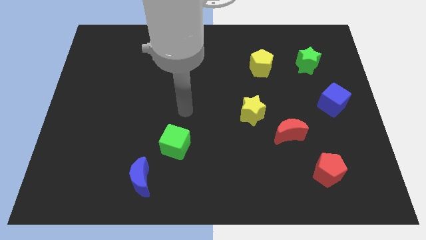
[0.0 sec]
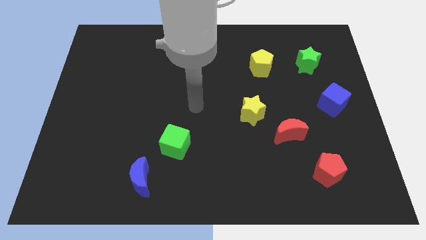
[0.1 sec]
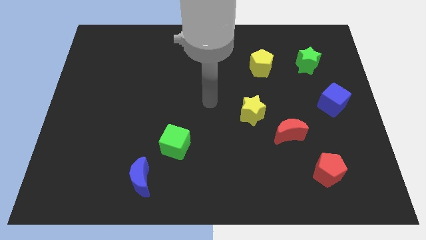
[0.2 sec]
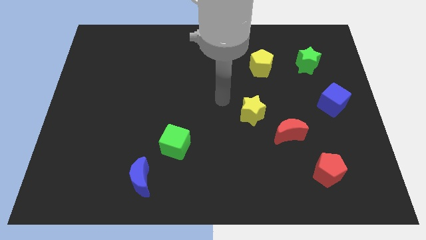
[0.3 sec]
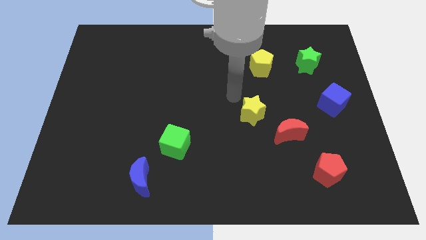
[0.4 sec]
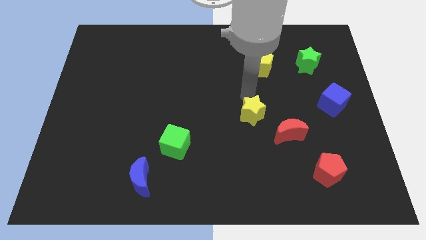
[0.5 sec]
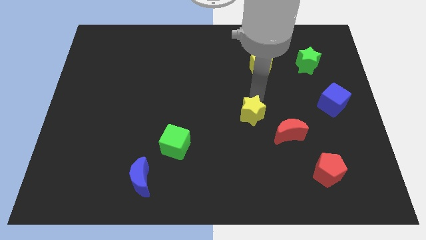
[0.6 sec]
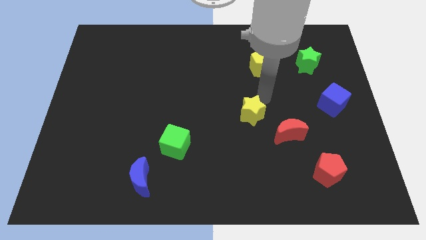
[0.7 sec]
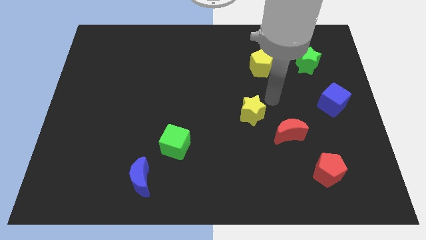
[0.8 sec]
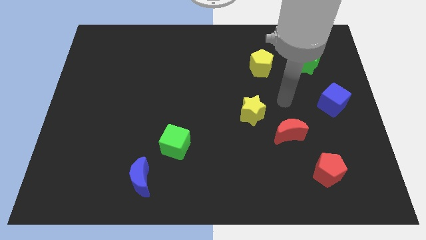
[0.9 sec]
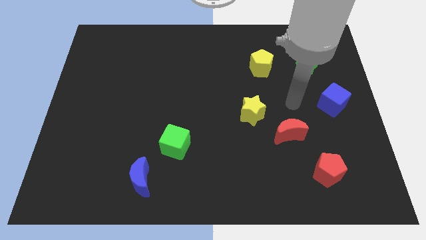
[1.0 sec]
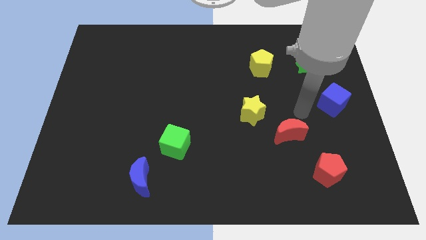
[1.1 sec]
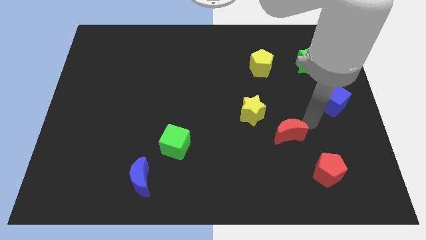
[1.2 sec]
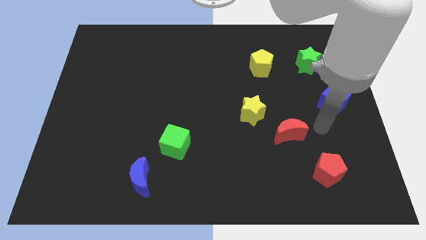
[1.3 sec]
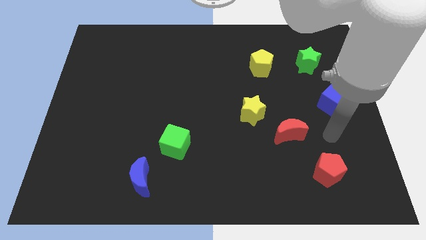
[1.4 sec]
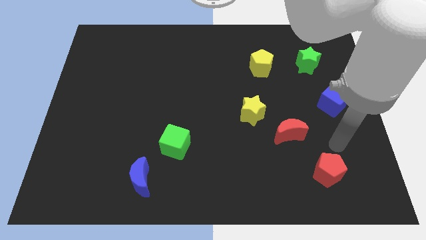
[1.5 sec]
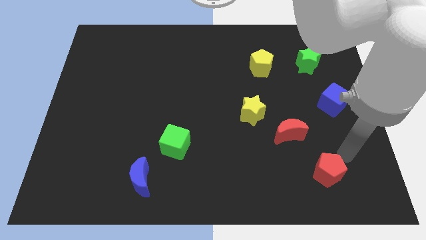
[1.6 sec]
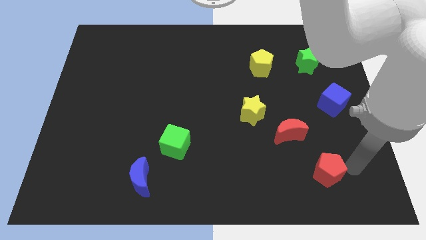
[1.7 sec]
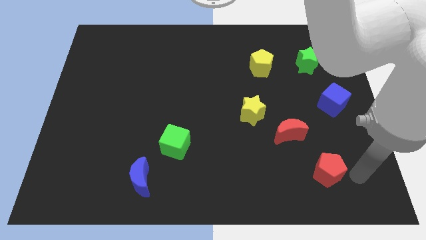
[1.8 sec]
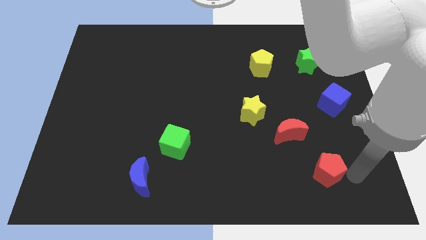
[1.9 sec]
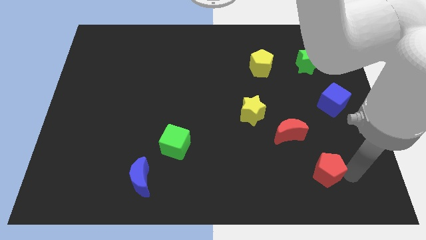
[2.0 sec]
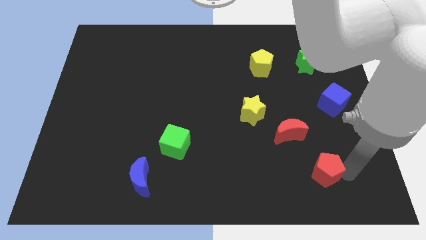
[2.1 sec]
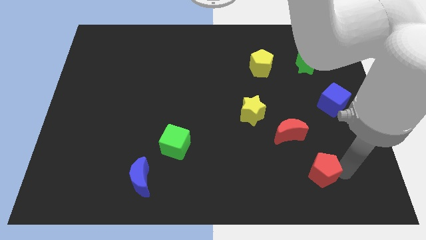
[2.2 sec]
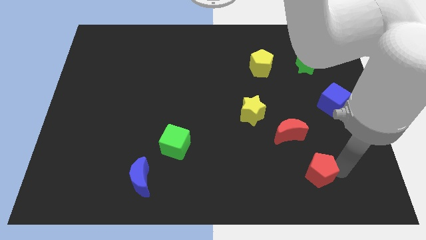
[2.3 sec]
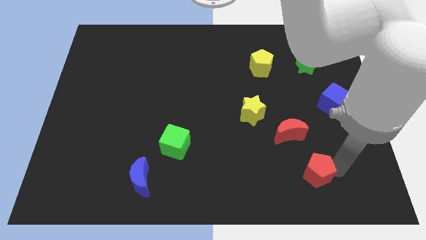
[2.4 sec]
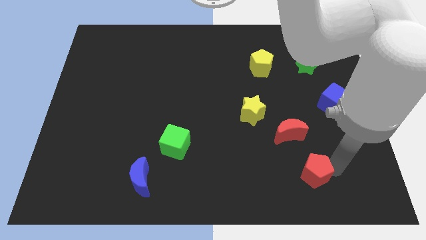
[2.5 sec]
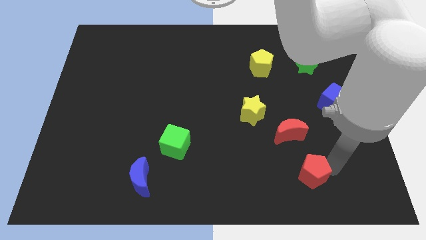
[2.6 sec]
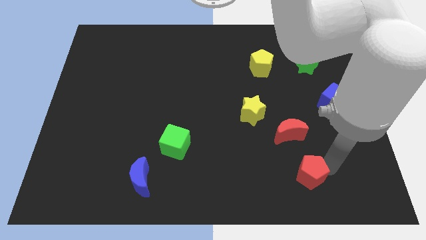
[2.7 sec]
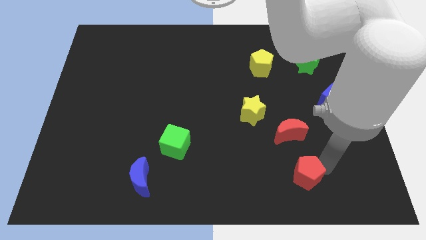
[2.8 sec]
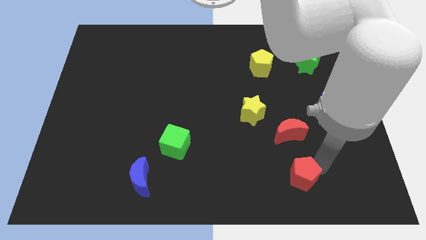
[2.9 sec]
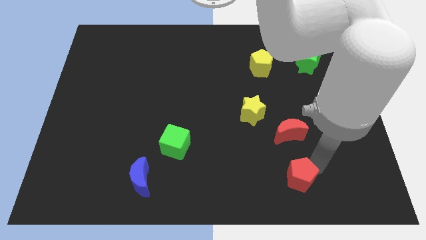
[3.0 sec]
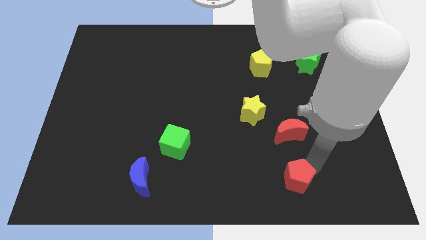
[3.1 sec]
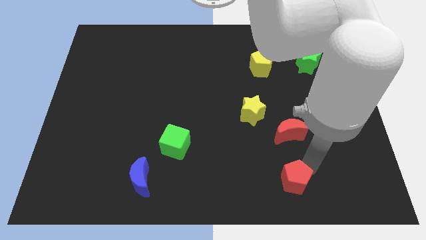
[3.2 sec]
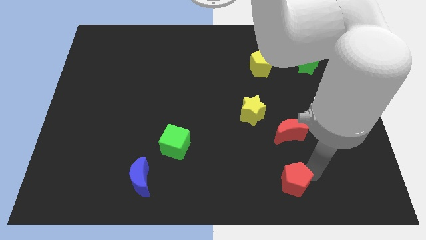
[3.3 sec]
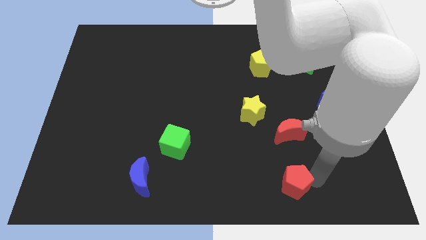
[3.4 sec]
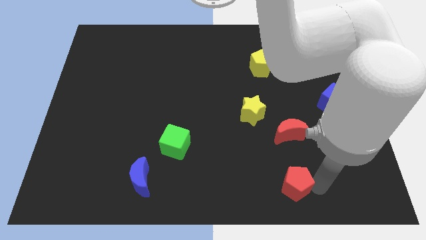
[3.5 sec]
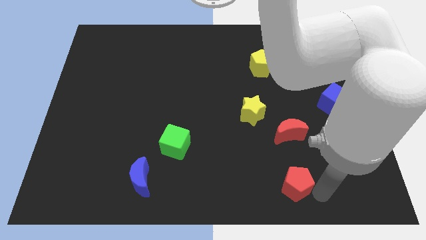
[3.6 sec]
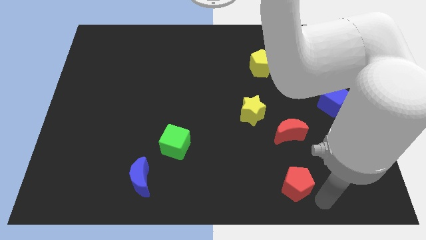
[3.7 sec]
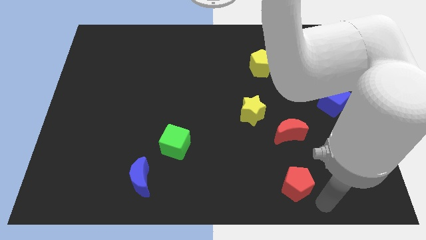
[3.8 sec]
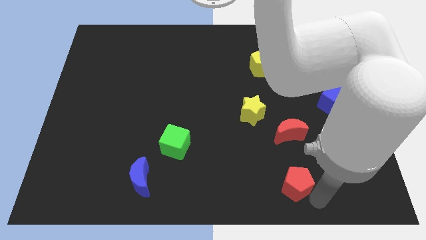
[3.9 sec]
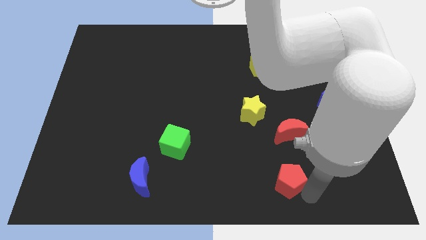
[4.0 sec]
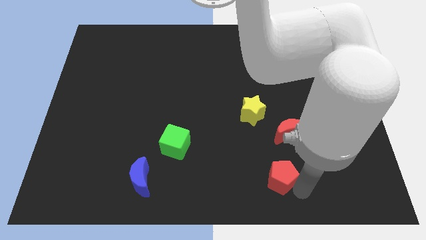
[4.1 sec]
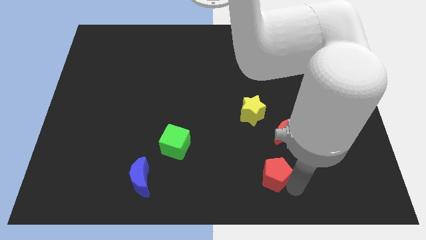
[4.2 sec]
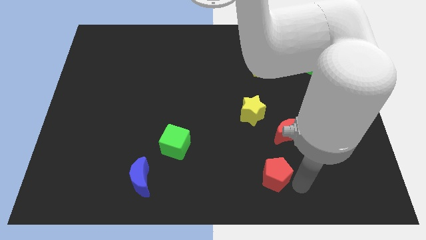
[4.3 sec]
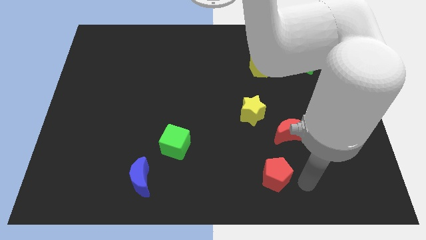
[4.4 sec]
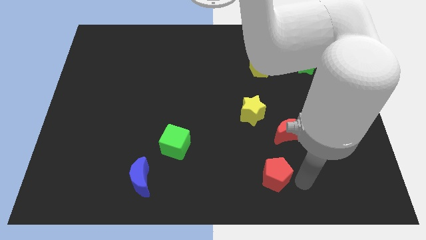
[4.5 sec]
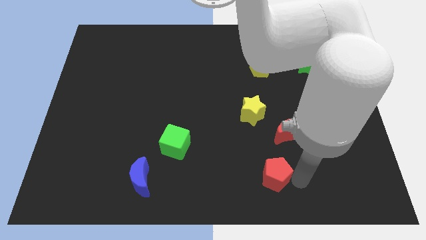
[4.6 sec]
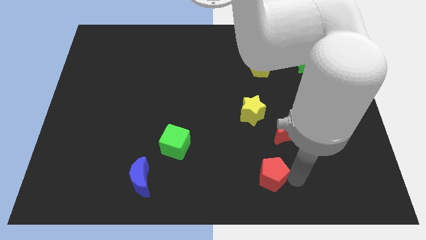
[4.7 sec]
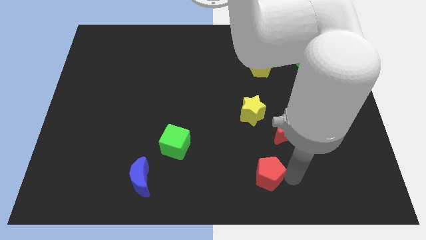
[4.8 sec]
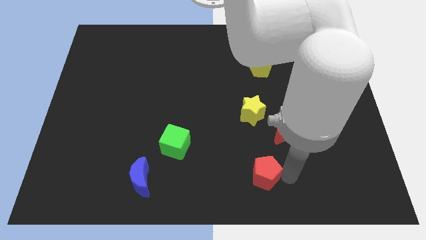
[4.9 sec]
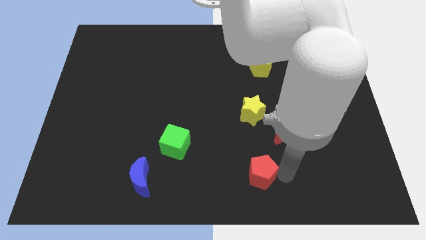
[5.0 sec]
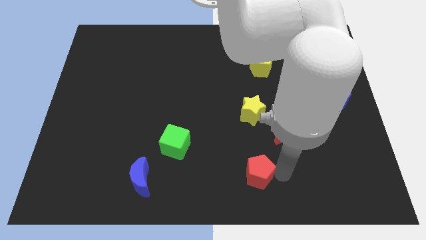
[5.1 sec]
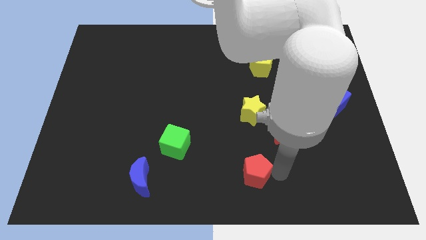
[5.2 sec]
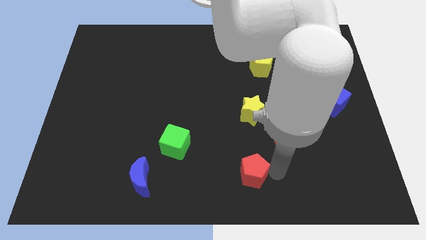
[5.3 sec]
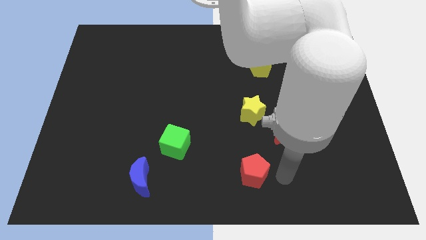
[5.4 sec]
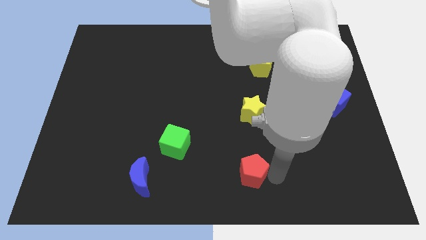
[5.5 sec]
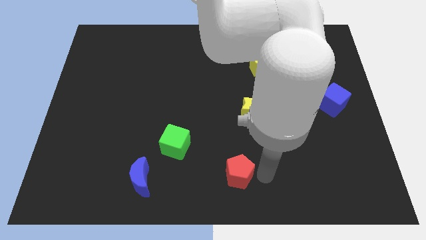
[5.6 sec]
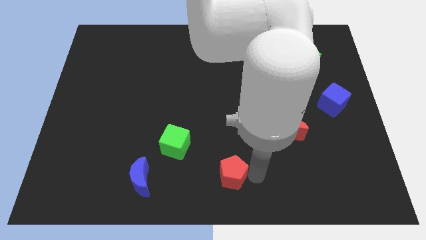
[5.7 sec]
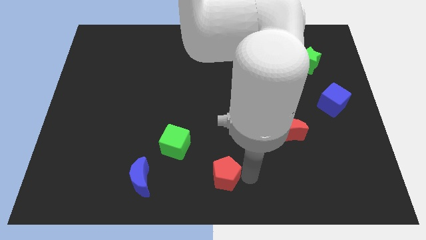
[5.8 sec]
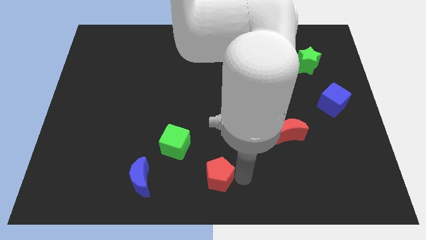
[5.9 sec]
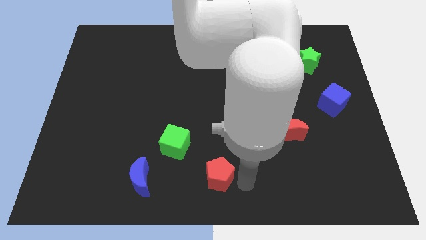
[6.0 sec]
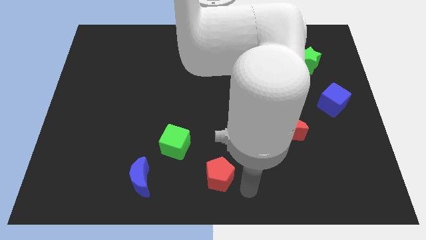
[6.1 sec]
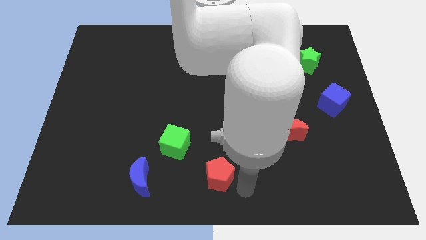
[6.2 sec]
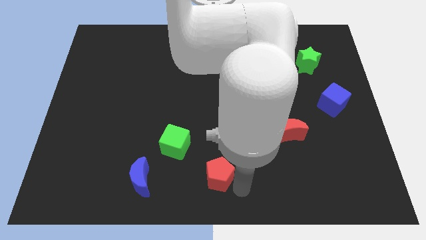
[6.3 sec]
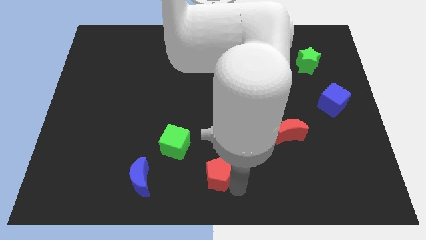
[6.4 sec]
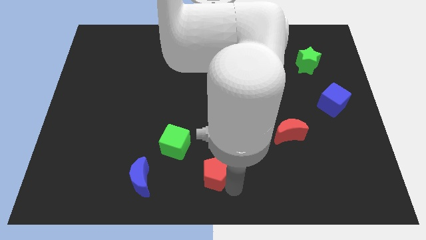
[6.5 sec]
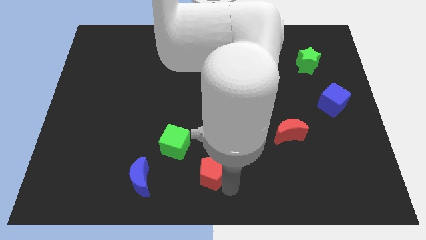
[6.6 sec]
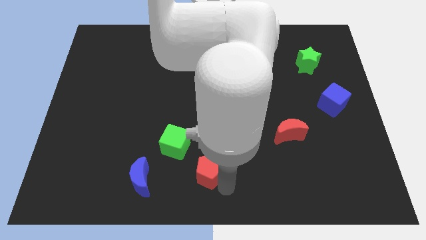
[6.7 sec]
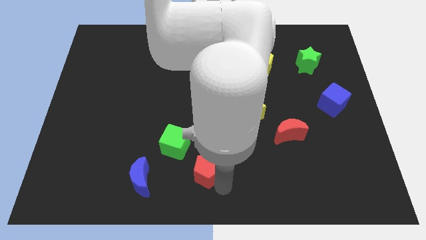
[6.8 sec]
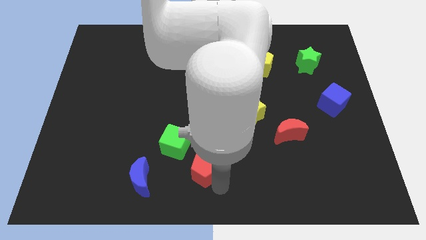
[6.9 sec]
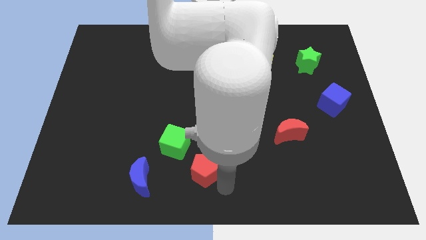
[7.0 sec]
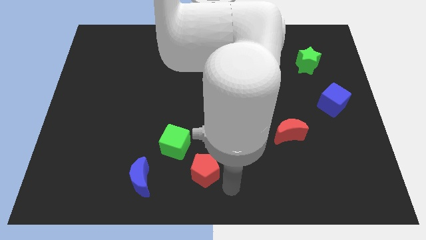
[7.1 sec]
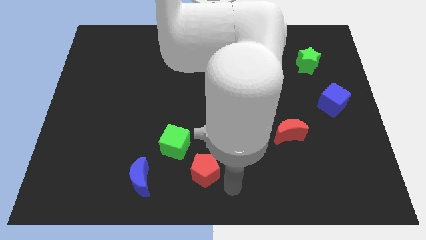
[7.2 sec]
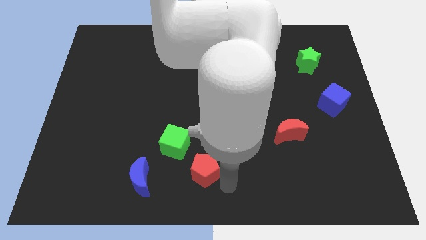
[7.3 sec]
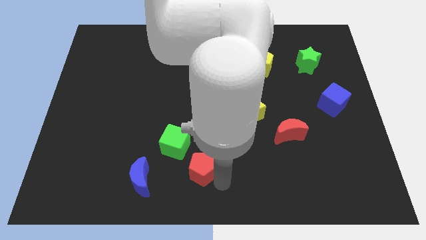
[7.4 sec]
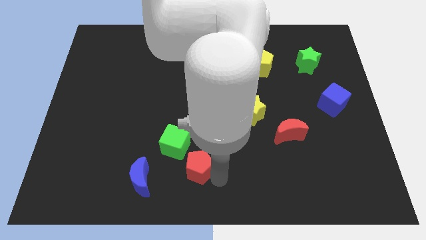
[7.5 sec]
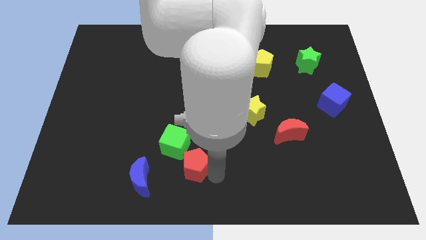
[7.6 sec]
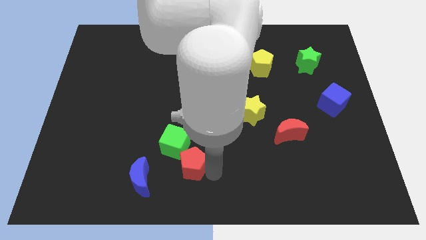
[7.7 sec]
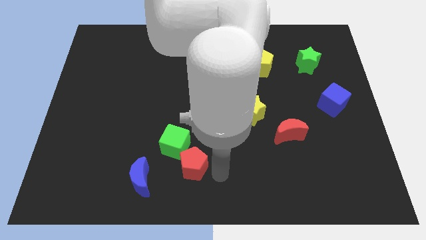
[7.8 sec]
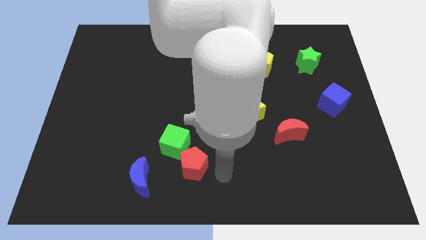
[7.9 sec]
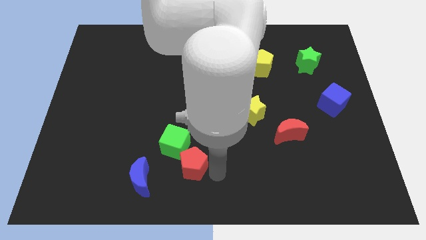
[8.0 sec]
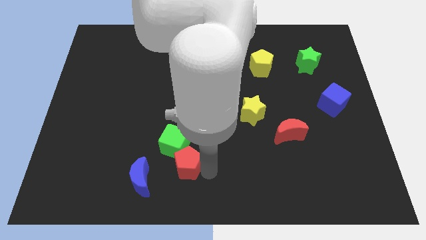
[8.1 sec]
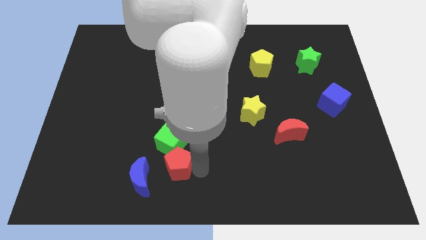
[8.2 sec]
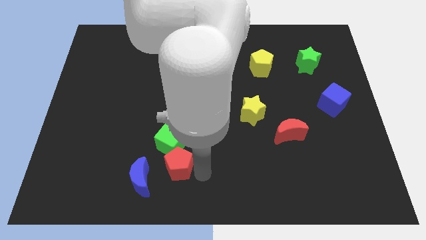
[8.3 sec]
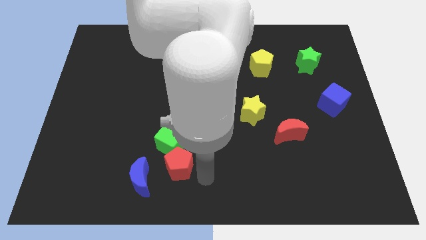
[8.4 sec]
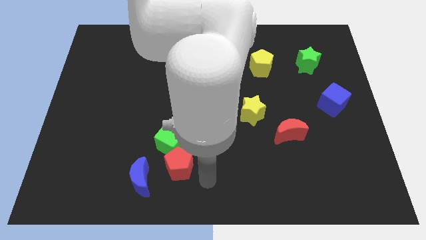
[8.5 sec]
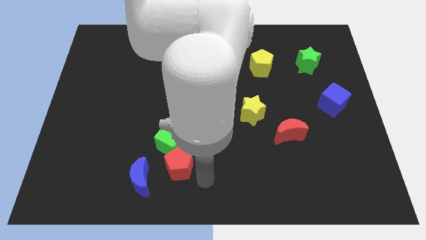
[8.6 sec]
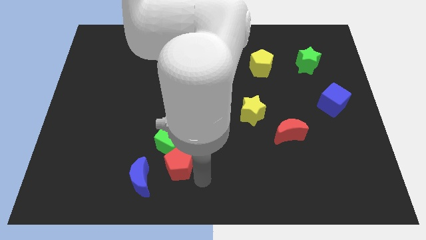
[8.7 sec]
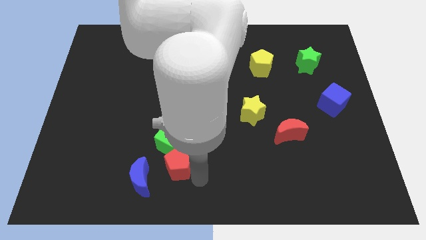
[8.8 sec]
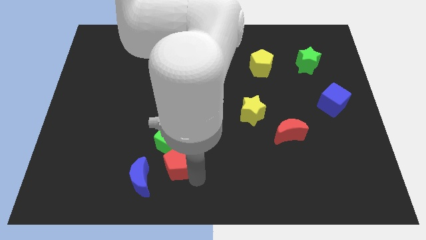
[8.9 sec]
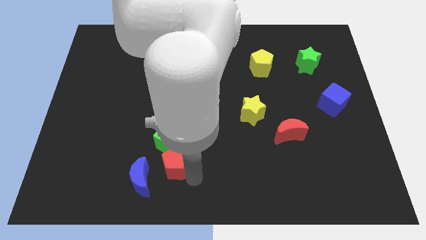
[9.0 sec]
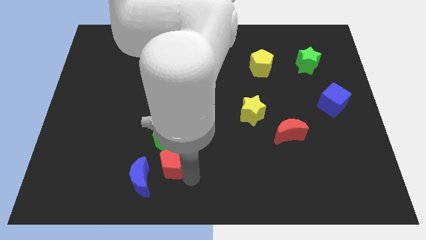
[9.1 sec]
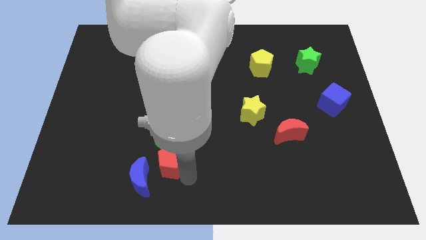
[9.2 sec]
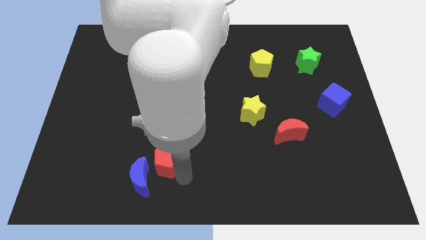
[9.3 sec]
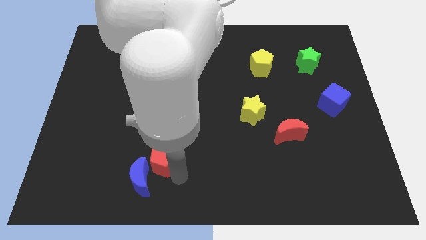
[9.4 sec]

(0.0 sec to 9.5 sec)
push the red pentagon to the top side of the blue moon
